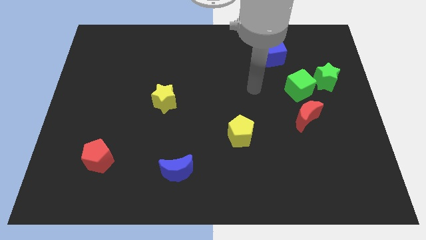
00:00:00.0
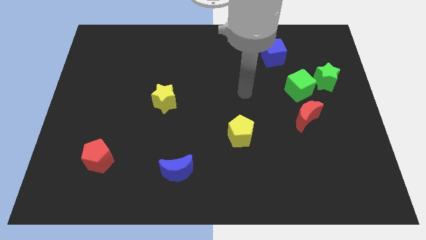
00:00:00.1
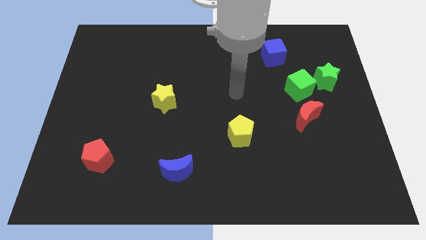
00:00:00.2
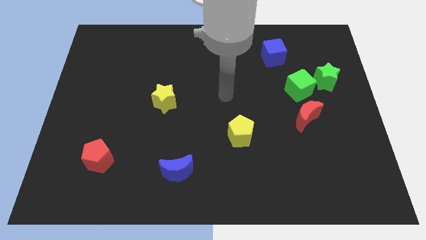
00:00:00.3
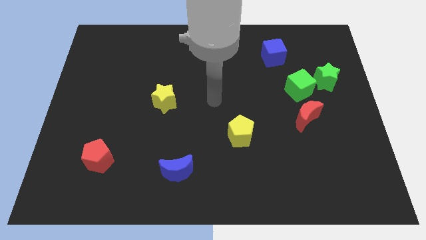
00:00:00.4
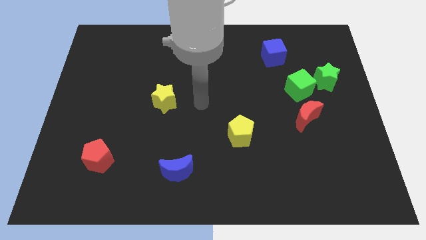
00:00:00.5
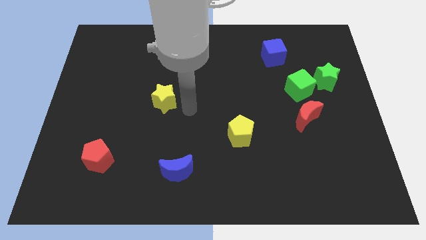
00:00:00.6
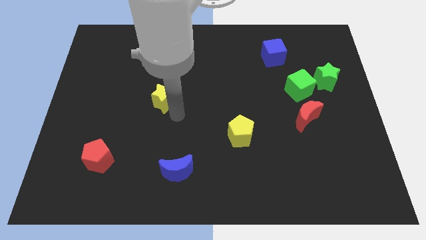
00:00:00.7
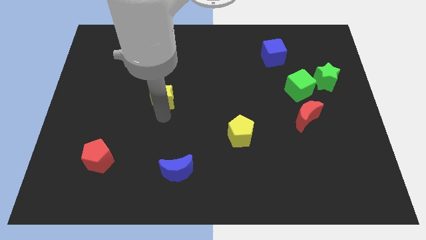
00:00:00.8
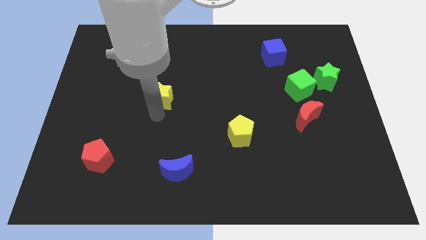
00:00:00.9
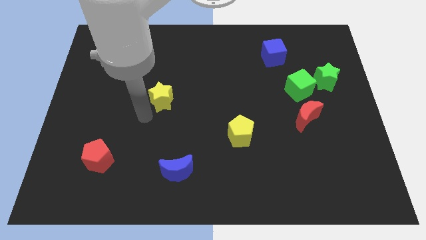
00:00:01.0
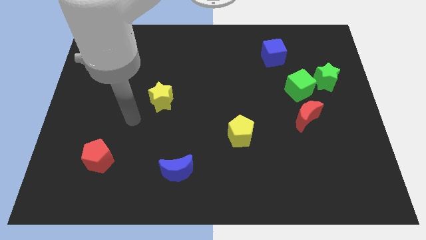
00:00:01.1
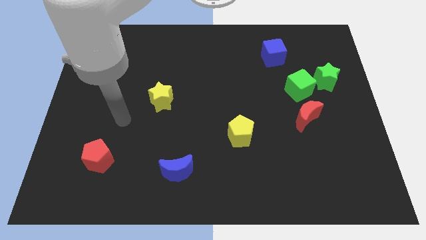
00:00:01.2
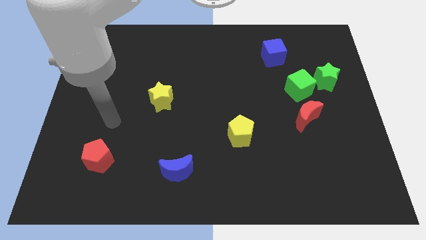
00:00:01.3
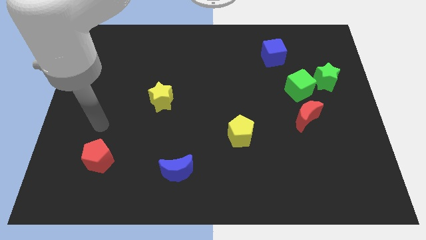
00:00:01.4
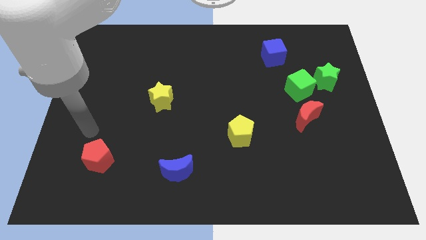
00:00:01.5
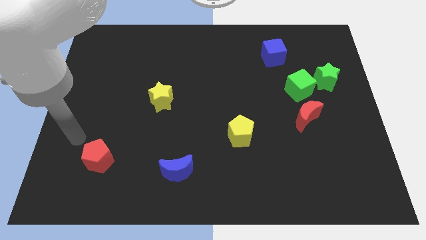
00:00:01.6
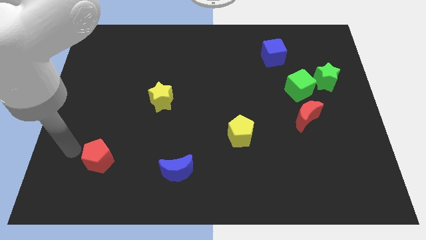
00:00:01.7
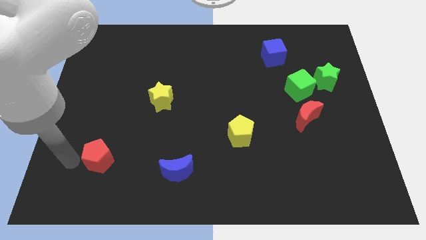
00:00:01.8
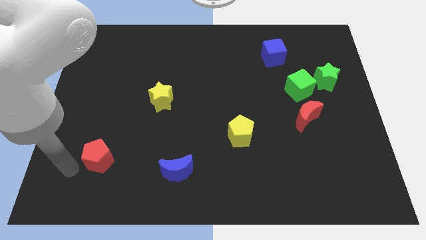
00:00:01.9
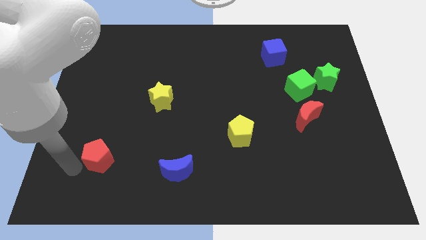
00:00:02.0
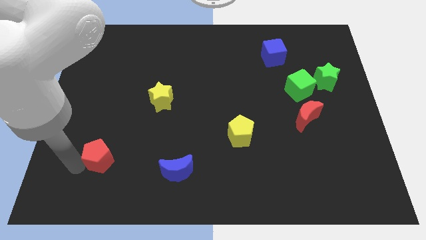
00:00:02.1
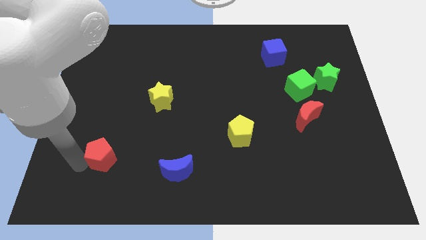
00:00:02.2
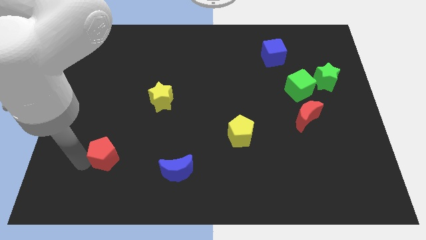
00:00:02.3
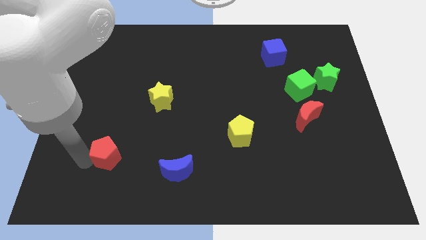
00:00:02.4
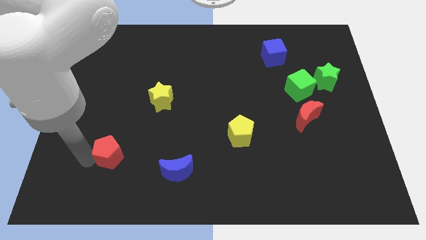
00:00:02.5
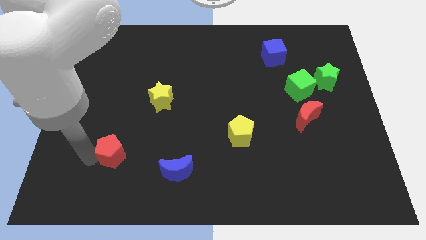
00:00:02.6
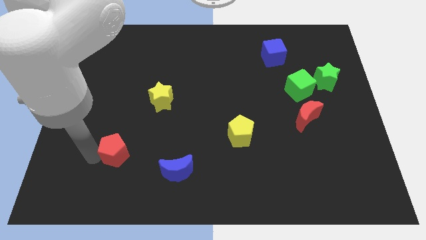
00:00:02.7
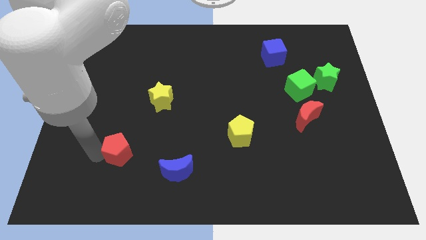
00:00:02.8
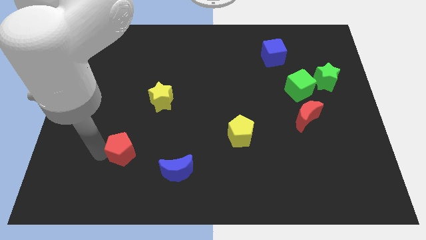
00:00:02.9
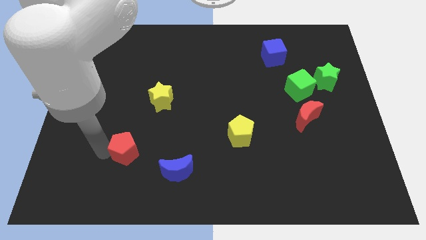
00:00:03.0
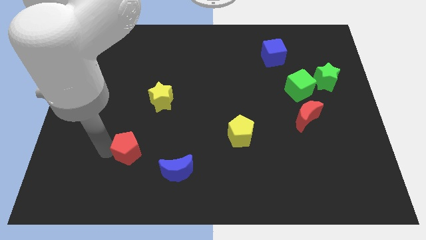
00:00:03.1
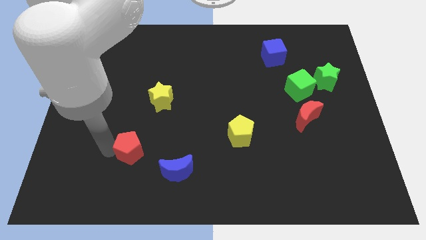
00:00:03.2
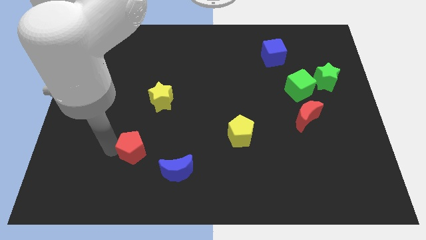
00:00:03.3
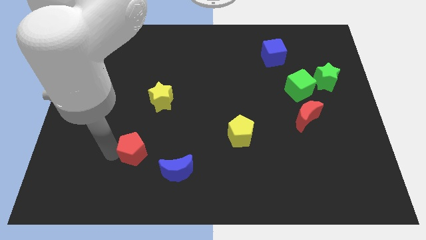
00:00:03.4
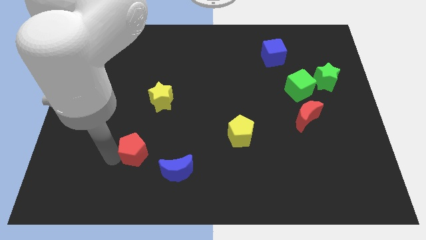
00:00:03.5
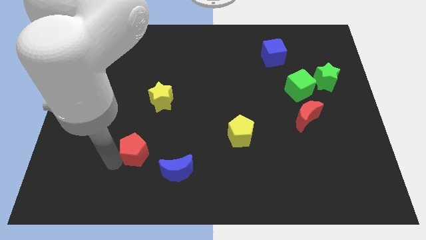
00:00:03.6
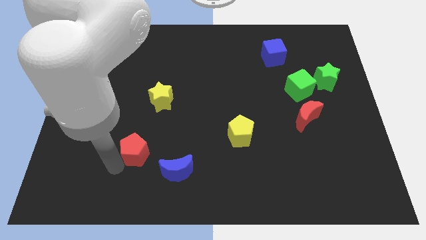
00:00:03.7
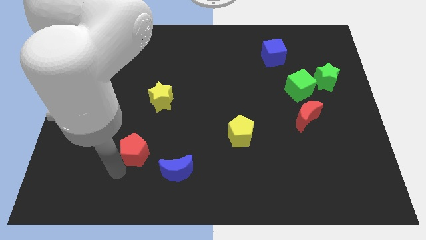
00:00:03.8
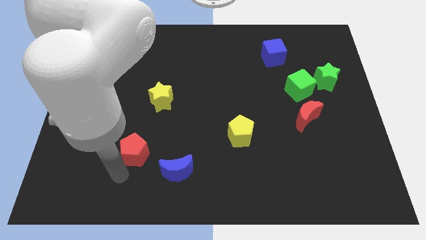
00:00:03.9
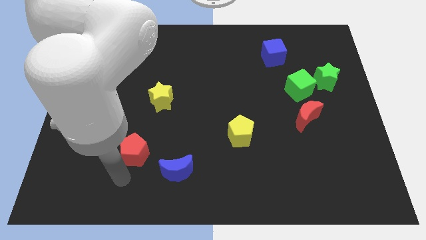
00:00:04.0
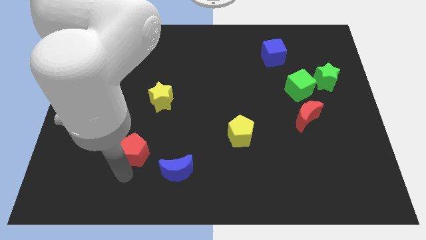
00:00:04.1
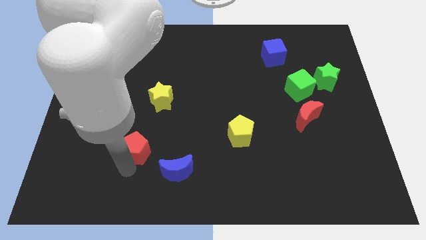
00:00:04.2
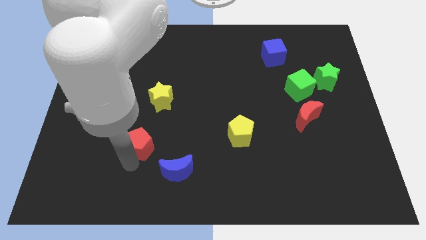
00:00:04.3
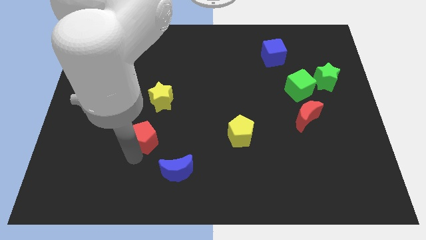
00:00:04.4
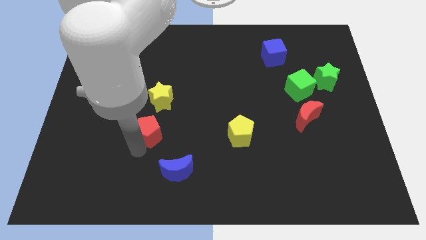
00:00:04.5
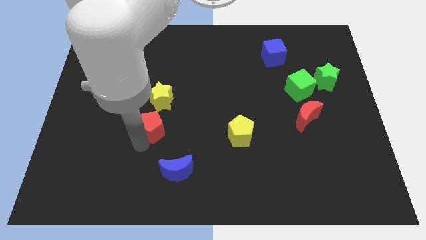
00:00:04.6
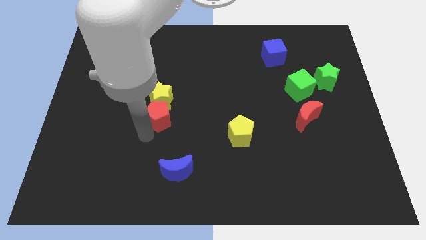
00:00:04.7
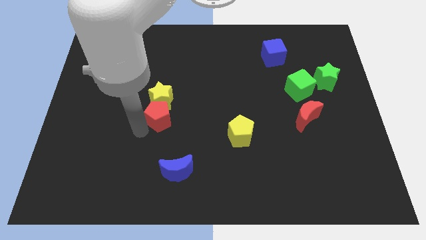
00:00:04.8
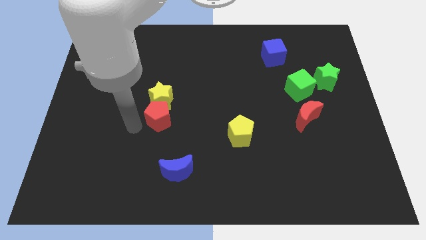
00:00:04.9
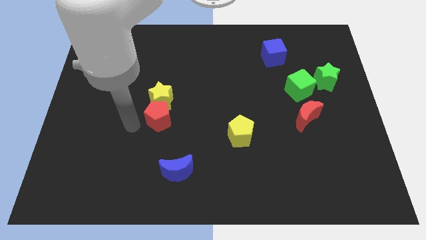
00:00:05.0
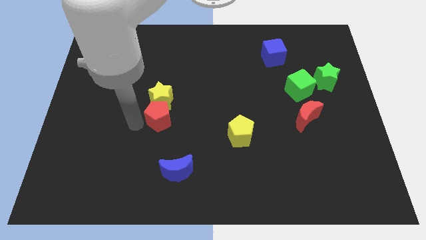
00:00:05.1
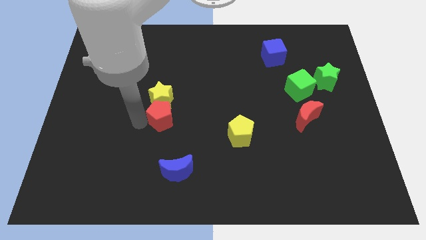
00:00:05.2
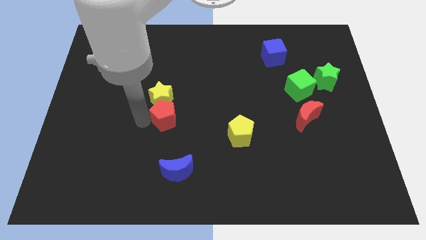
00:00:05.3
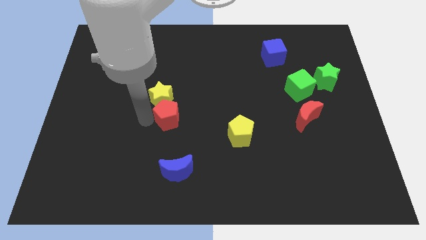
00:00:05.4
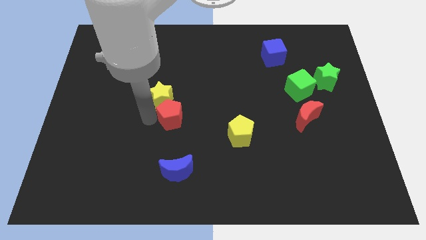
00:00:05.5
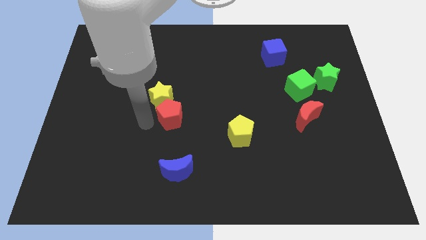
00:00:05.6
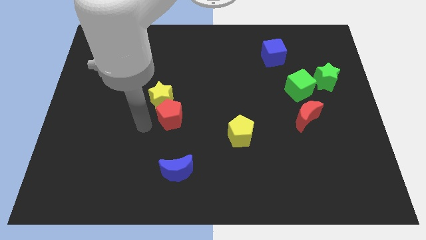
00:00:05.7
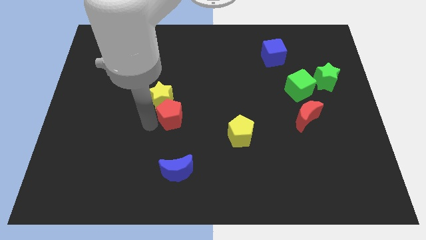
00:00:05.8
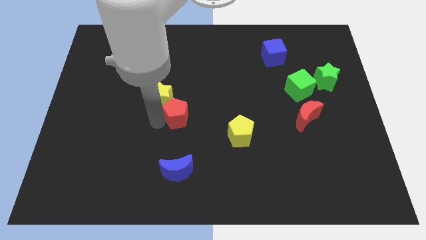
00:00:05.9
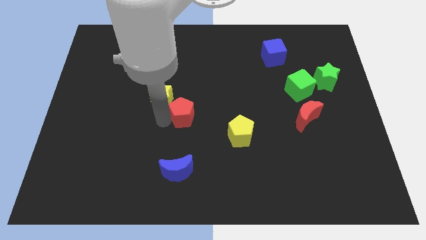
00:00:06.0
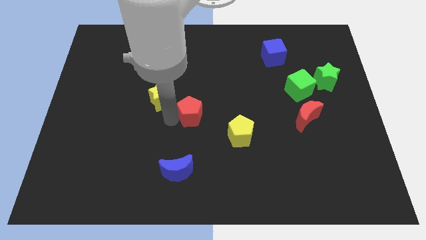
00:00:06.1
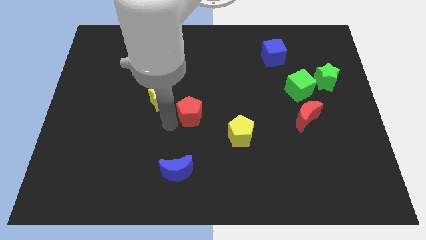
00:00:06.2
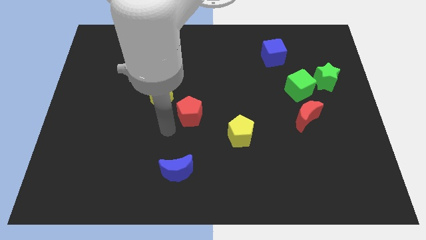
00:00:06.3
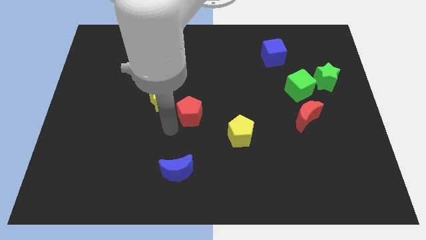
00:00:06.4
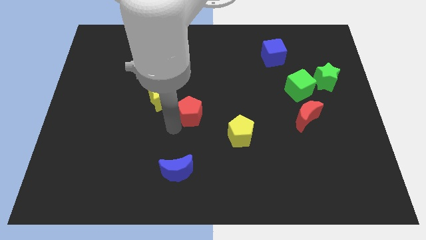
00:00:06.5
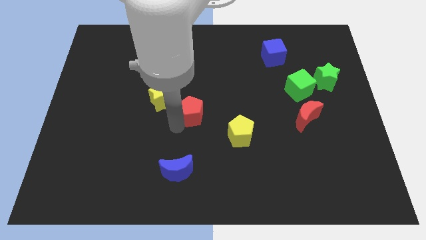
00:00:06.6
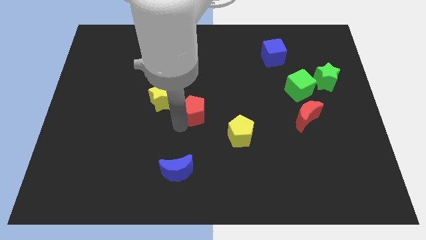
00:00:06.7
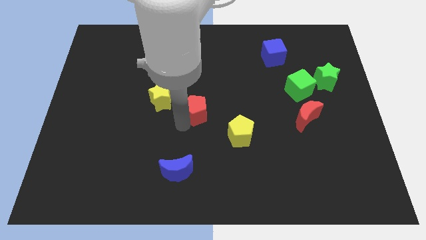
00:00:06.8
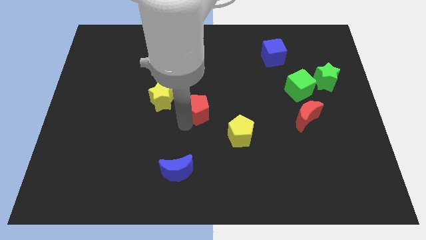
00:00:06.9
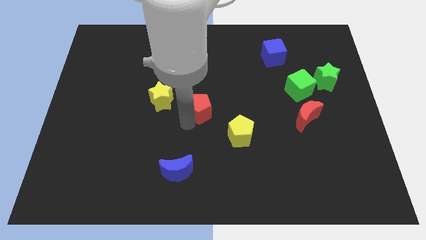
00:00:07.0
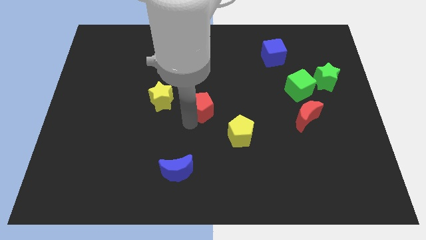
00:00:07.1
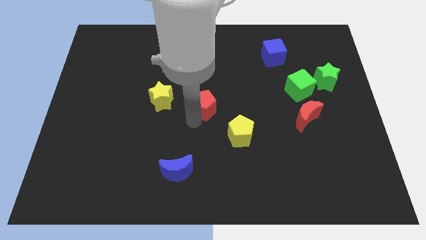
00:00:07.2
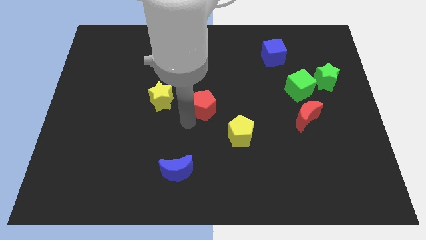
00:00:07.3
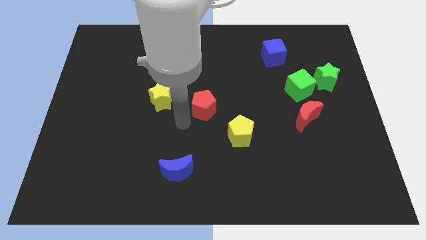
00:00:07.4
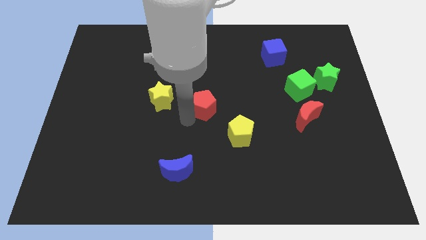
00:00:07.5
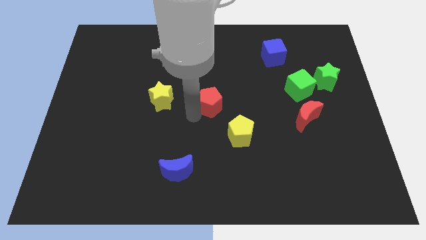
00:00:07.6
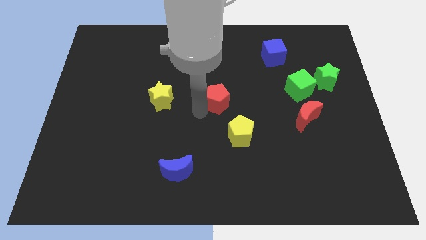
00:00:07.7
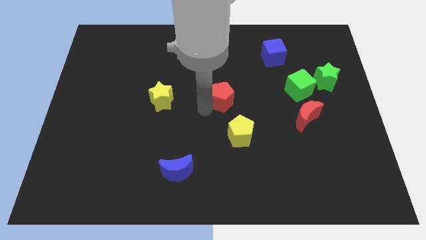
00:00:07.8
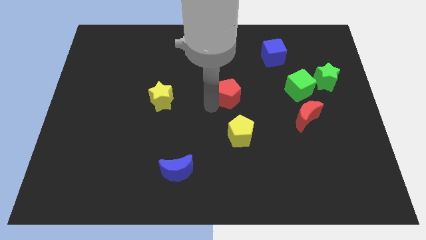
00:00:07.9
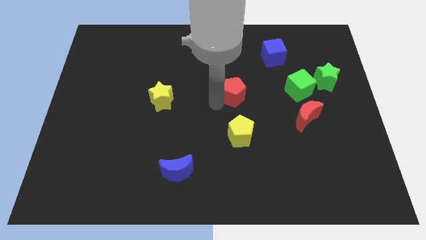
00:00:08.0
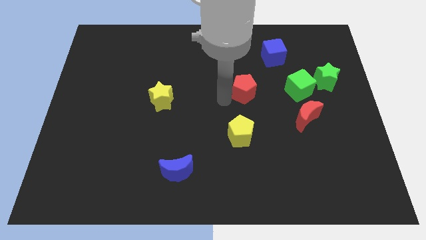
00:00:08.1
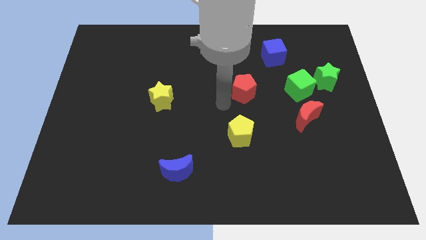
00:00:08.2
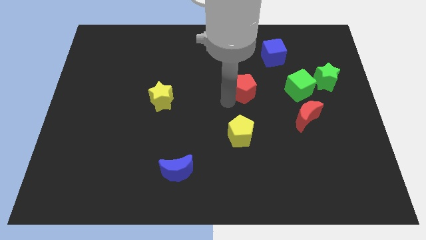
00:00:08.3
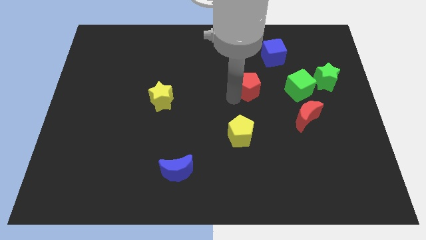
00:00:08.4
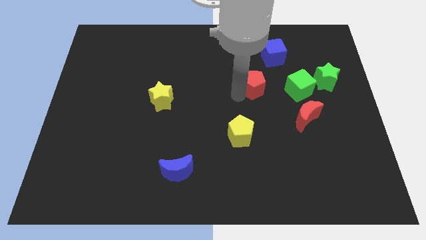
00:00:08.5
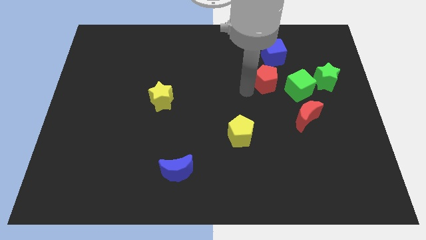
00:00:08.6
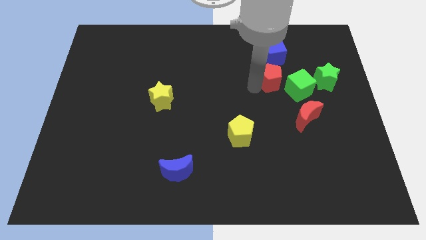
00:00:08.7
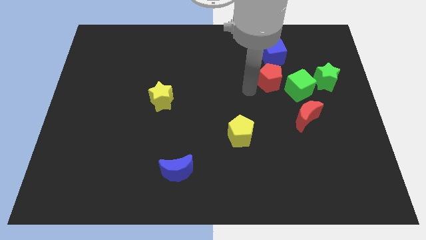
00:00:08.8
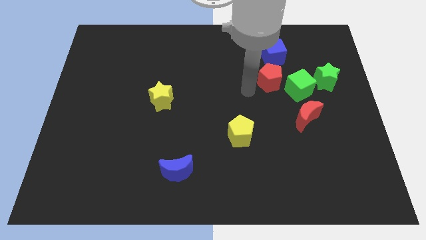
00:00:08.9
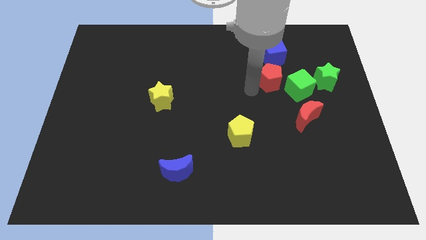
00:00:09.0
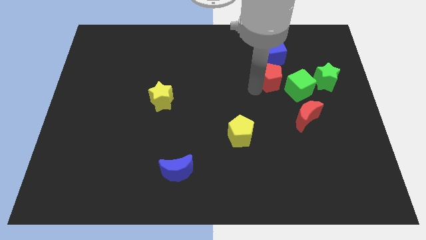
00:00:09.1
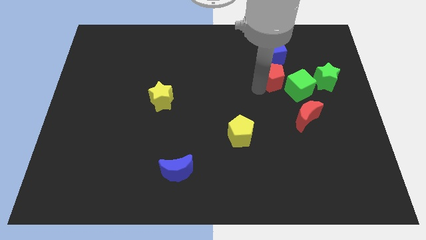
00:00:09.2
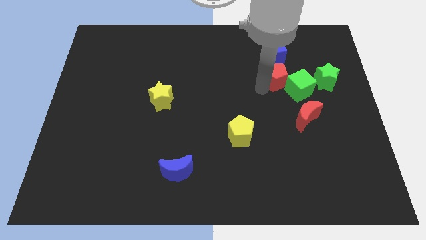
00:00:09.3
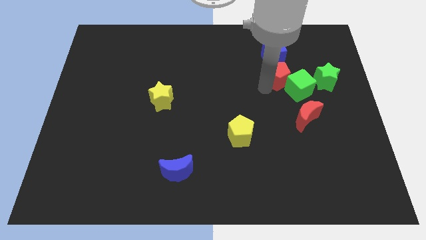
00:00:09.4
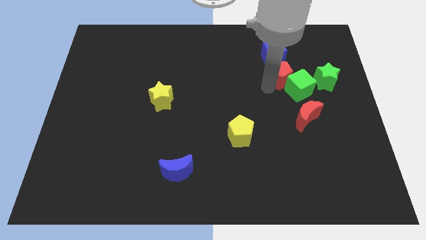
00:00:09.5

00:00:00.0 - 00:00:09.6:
put the red pentagon to the bottom right of the blue cube
